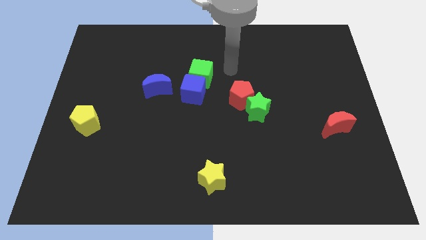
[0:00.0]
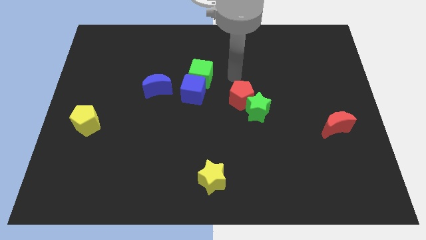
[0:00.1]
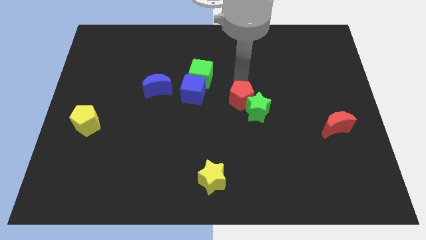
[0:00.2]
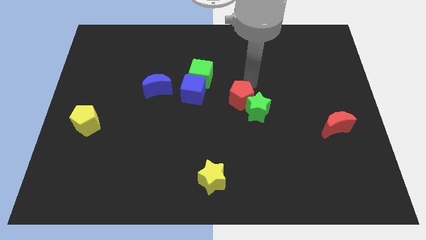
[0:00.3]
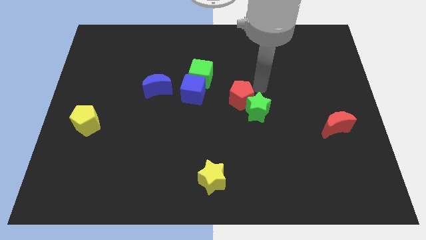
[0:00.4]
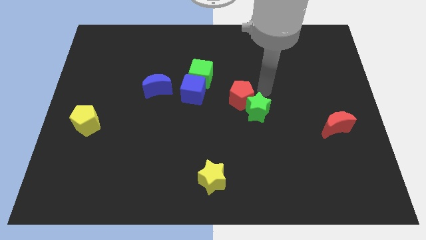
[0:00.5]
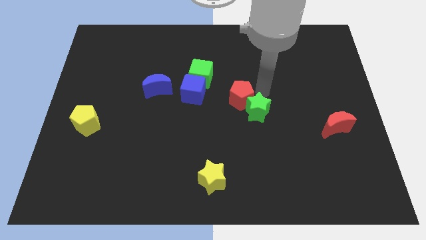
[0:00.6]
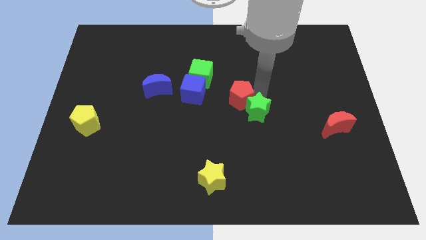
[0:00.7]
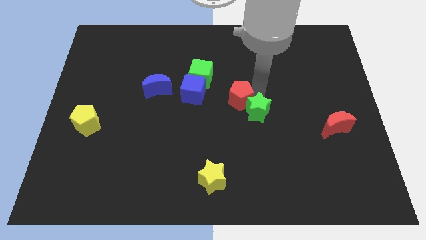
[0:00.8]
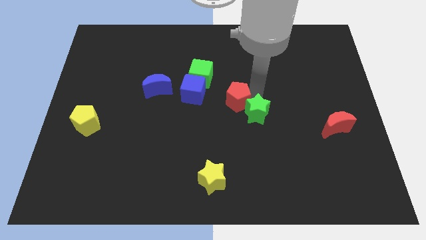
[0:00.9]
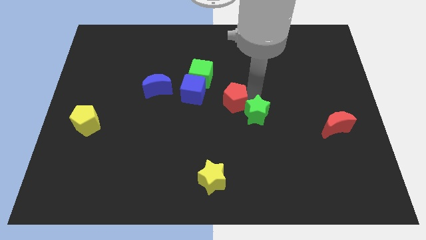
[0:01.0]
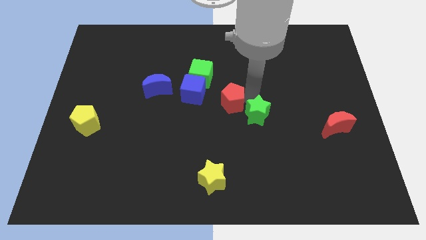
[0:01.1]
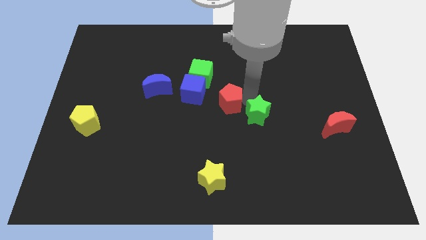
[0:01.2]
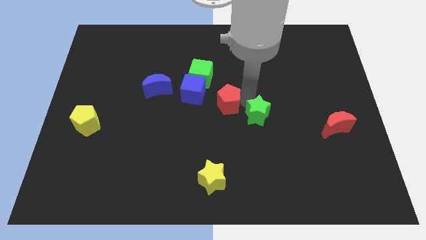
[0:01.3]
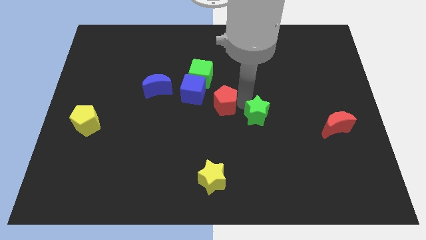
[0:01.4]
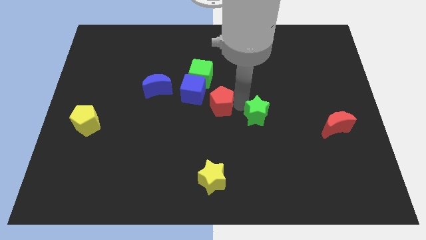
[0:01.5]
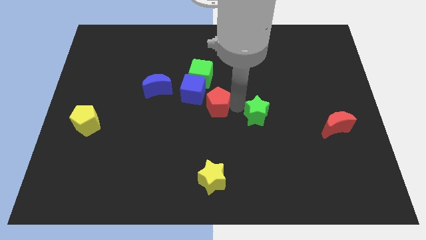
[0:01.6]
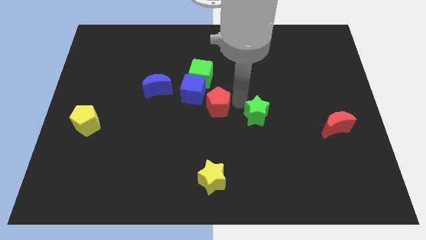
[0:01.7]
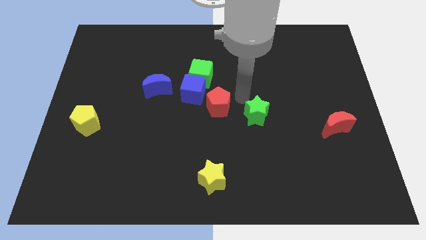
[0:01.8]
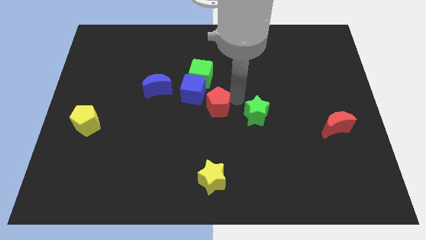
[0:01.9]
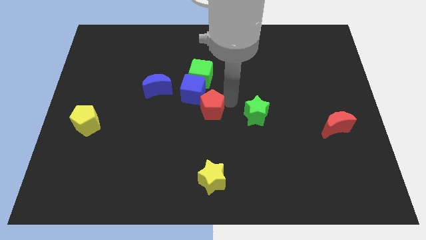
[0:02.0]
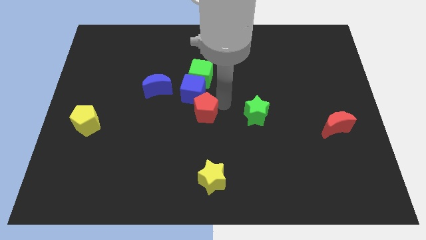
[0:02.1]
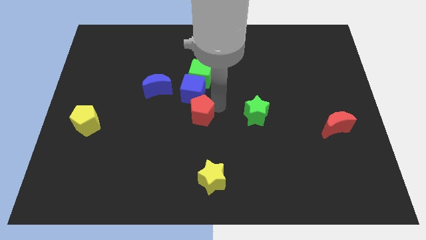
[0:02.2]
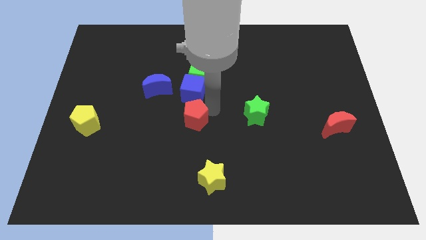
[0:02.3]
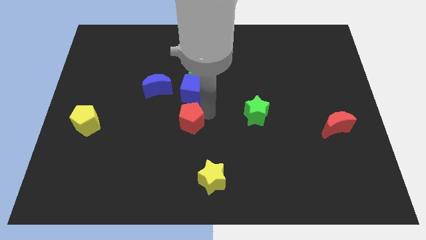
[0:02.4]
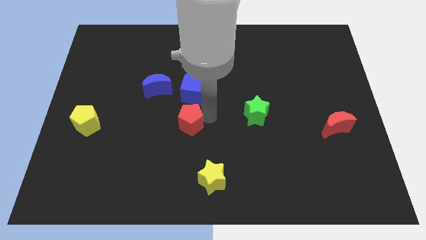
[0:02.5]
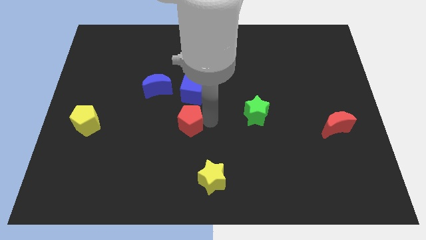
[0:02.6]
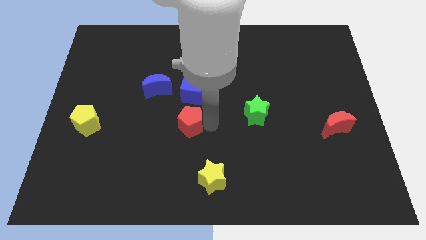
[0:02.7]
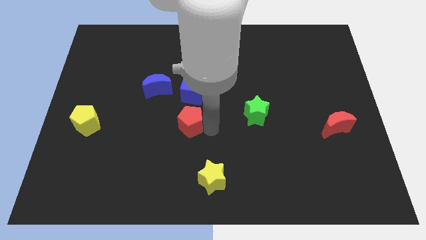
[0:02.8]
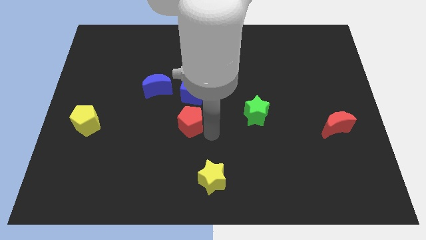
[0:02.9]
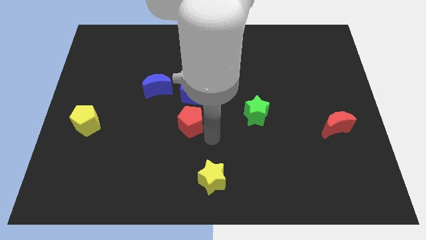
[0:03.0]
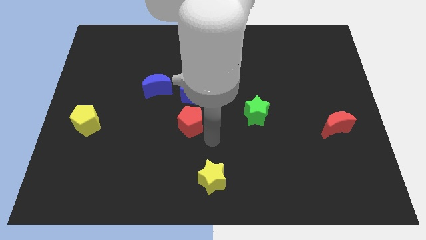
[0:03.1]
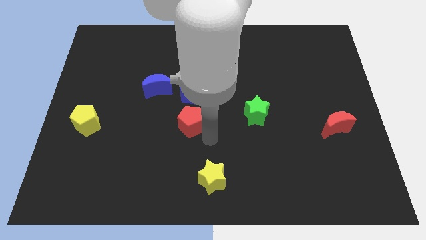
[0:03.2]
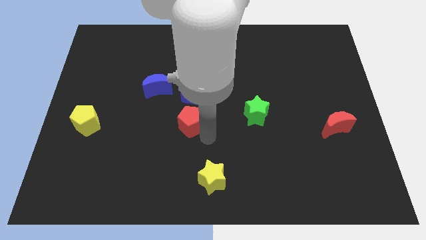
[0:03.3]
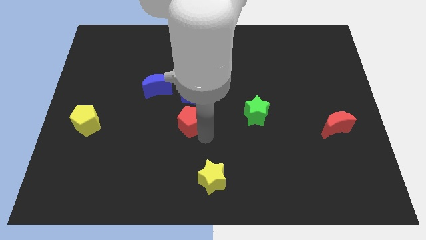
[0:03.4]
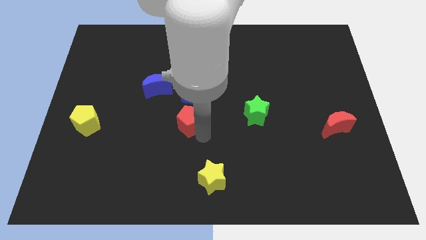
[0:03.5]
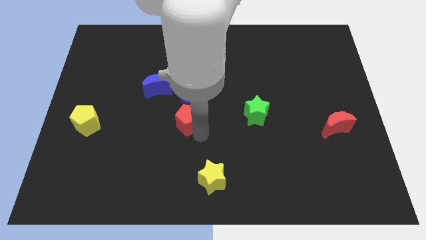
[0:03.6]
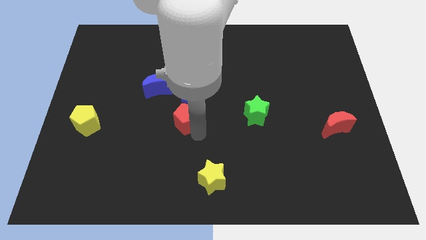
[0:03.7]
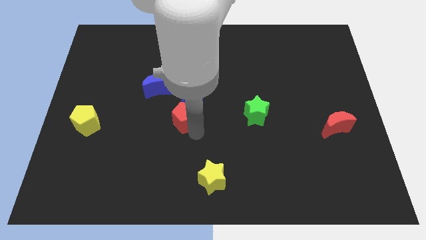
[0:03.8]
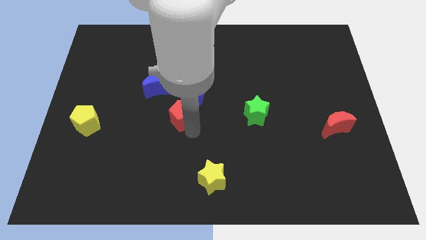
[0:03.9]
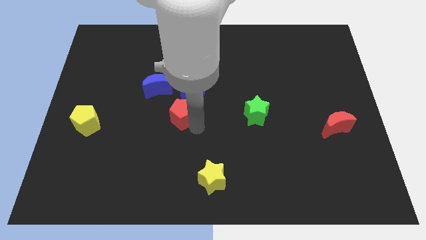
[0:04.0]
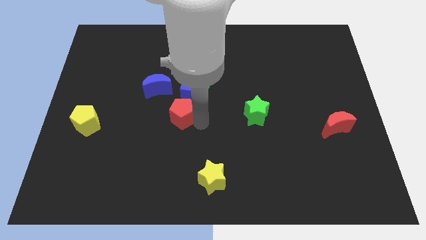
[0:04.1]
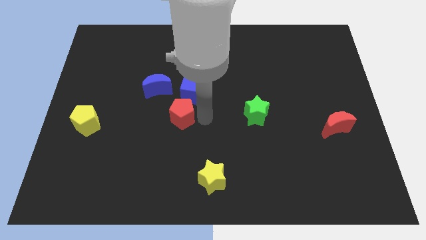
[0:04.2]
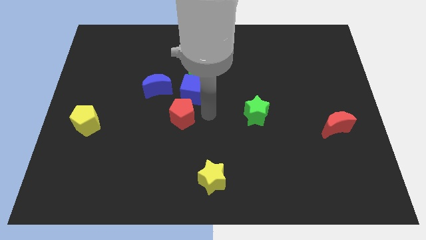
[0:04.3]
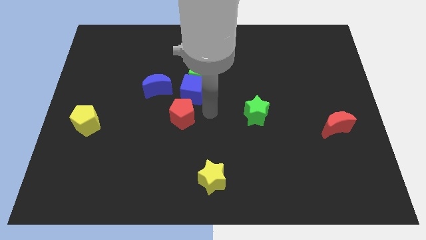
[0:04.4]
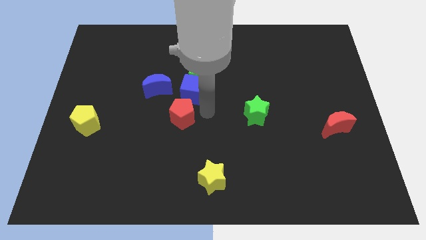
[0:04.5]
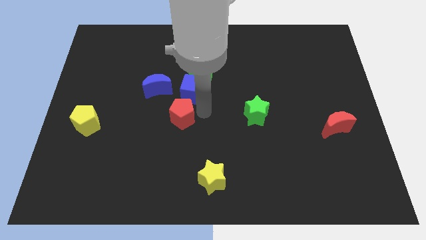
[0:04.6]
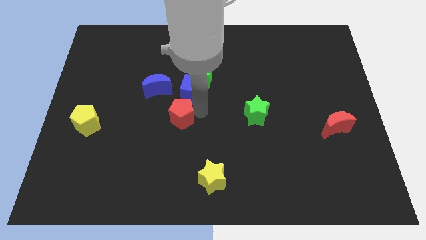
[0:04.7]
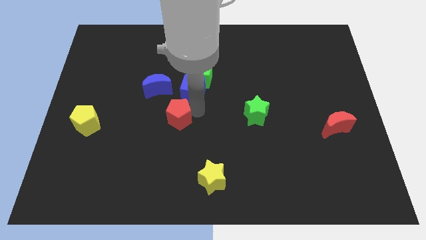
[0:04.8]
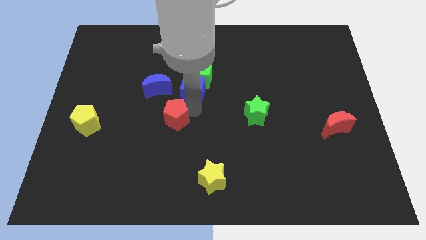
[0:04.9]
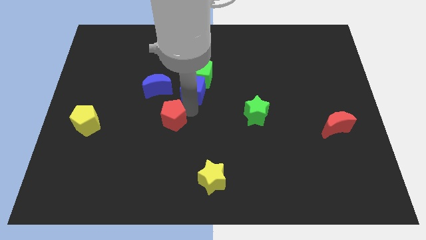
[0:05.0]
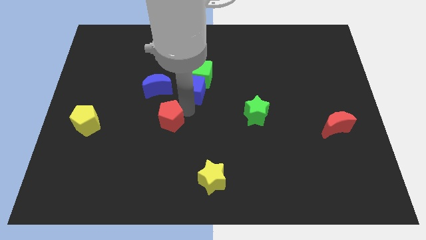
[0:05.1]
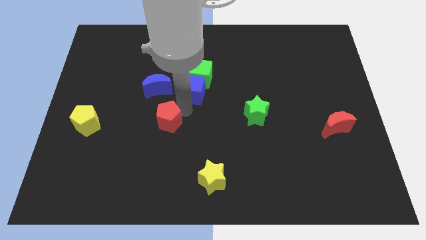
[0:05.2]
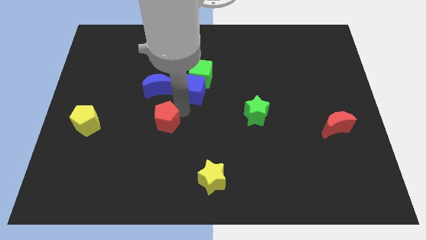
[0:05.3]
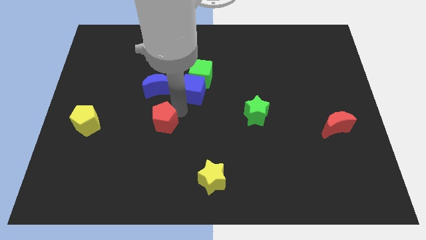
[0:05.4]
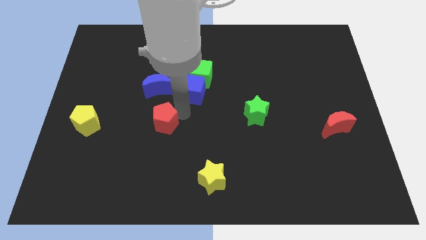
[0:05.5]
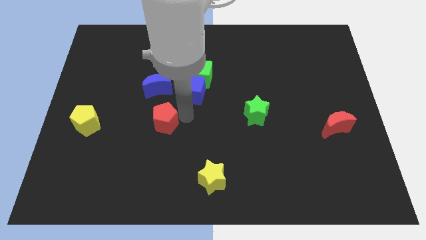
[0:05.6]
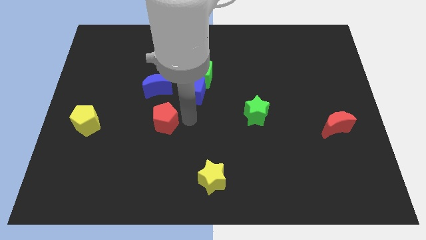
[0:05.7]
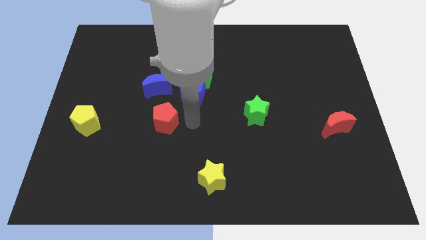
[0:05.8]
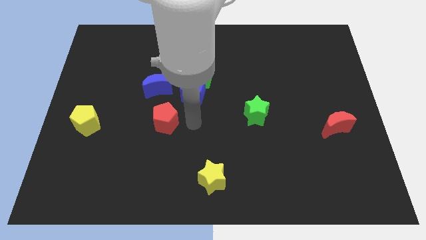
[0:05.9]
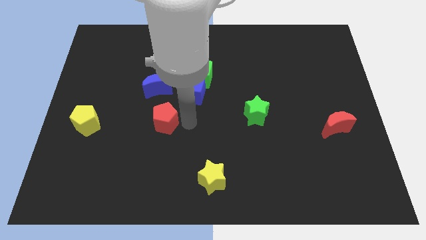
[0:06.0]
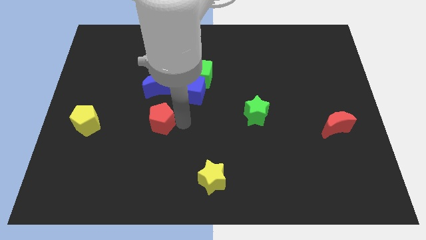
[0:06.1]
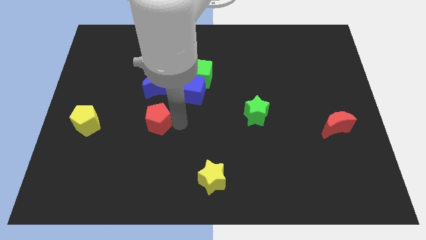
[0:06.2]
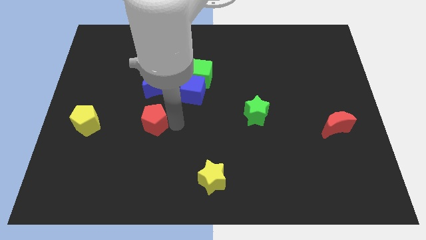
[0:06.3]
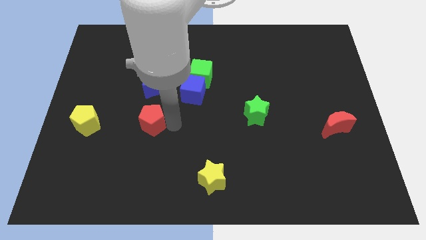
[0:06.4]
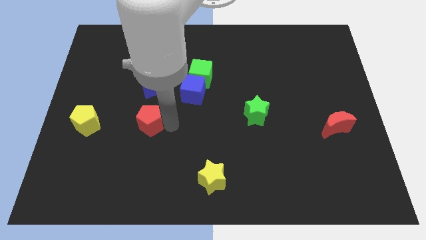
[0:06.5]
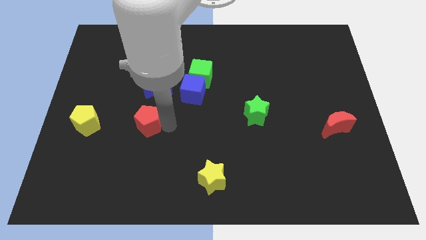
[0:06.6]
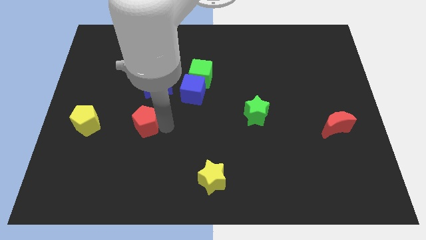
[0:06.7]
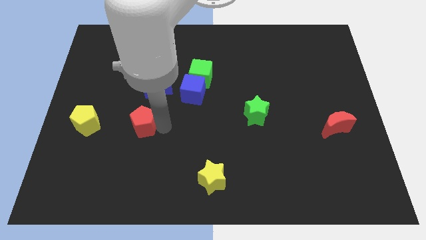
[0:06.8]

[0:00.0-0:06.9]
move the red pentagon left

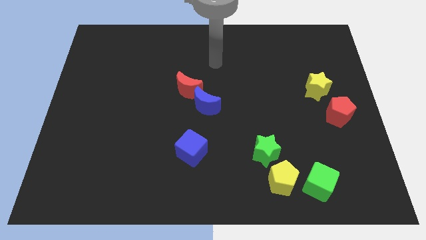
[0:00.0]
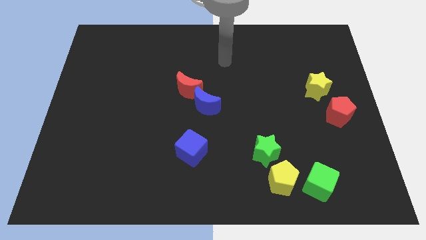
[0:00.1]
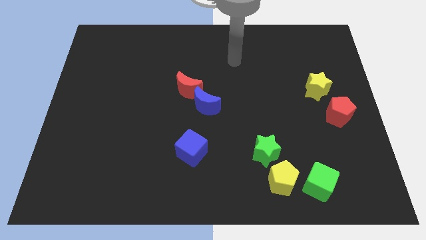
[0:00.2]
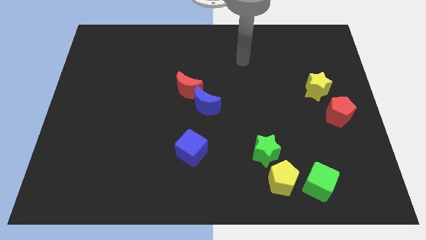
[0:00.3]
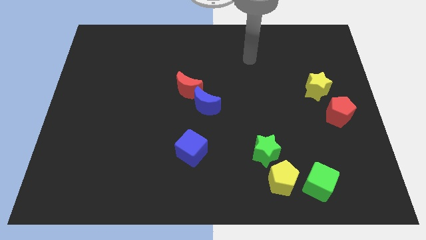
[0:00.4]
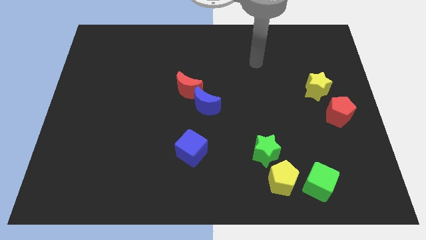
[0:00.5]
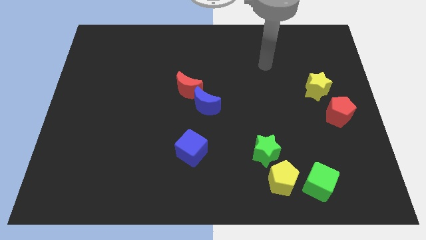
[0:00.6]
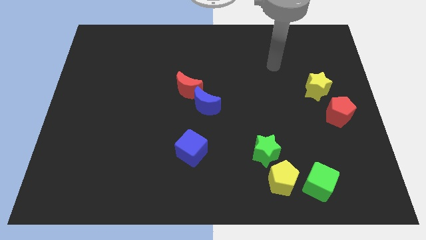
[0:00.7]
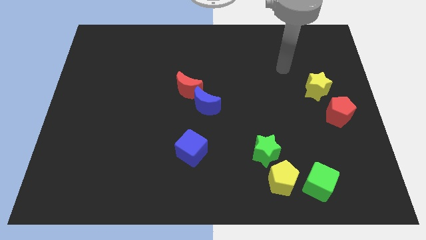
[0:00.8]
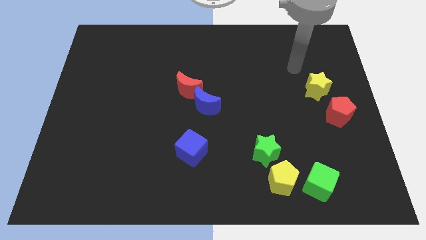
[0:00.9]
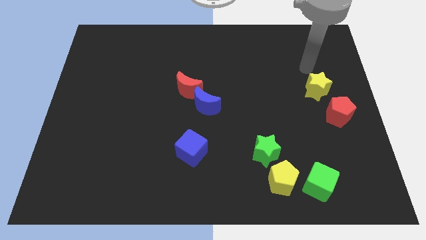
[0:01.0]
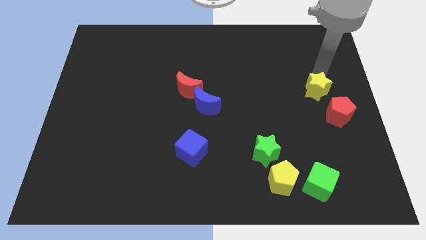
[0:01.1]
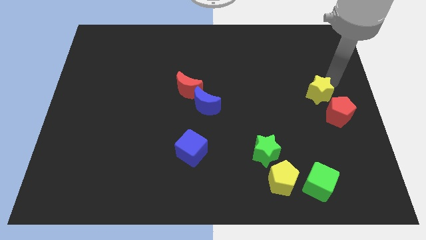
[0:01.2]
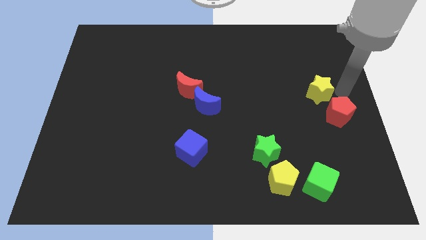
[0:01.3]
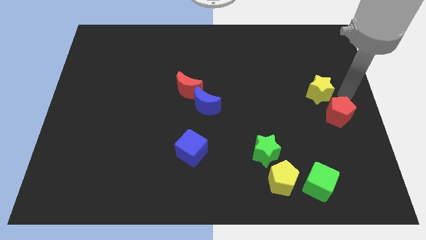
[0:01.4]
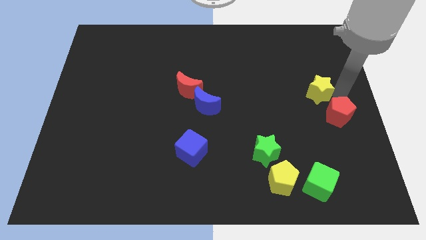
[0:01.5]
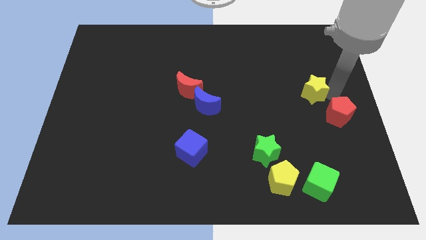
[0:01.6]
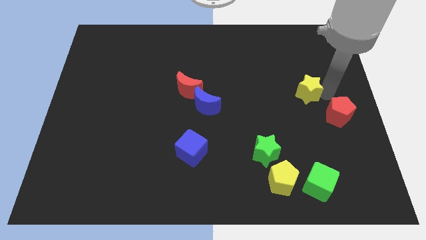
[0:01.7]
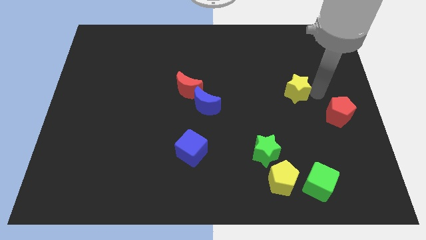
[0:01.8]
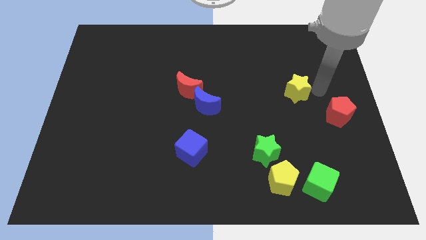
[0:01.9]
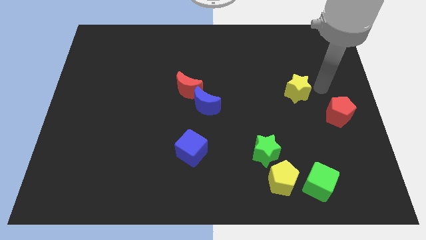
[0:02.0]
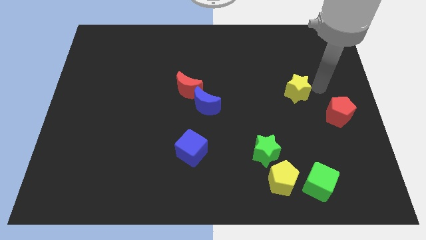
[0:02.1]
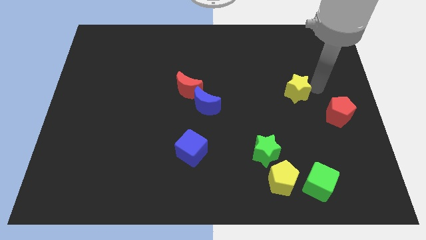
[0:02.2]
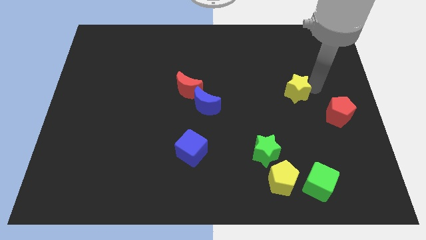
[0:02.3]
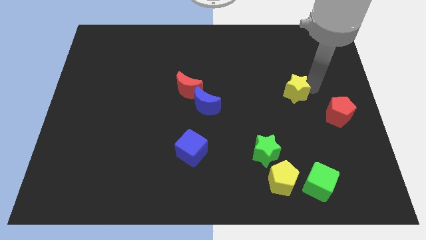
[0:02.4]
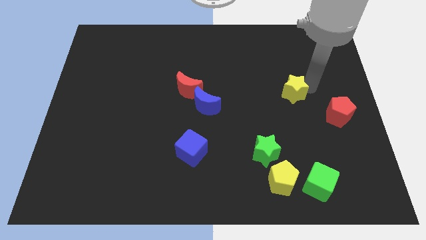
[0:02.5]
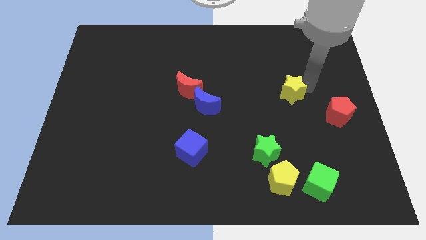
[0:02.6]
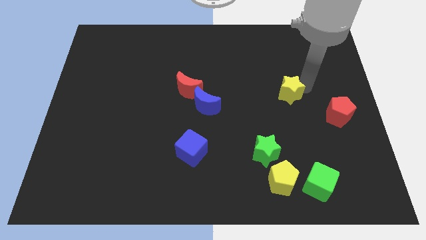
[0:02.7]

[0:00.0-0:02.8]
slightly slide the yellow star left
